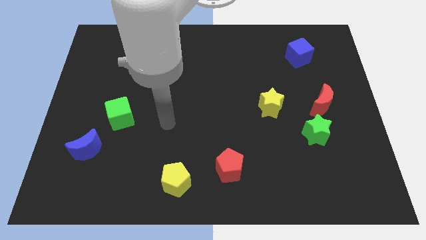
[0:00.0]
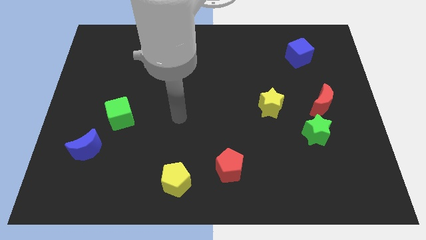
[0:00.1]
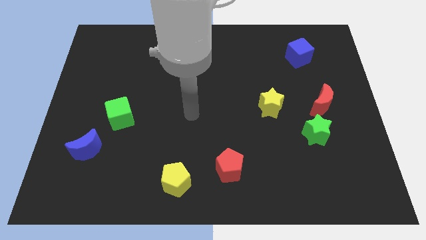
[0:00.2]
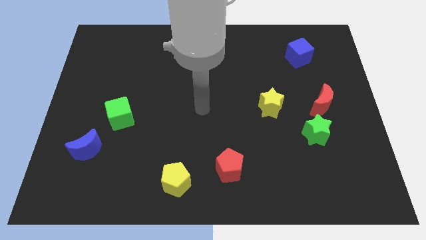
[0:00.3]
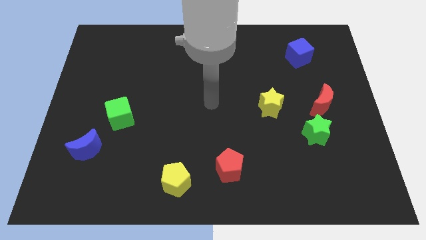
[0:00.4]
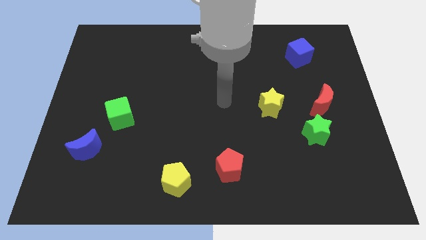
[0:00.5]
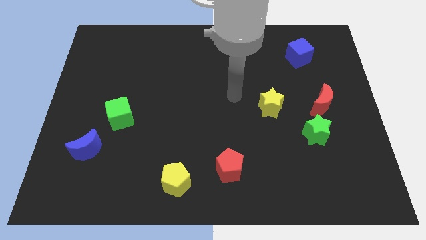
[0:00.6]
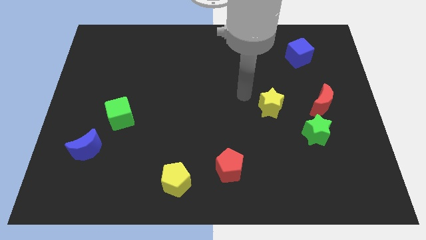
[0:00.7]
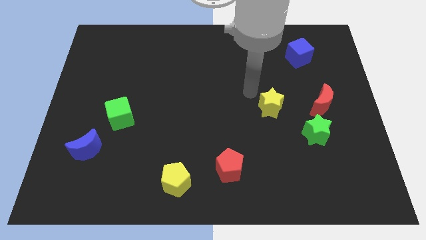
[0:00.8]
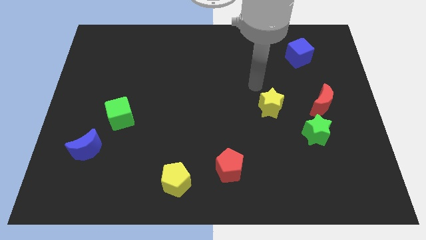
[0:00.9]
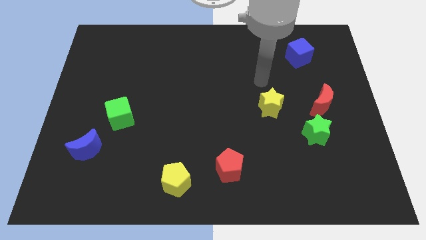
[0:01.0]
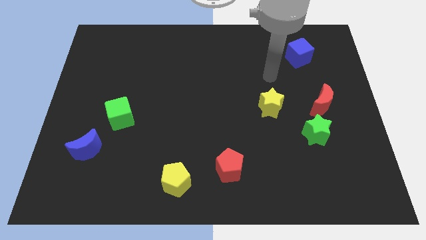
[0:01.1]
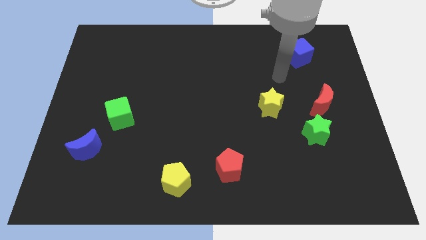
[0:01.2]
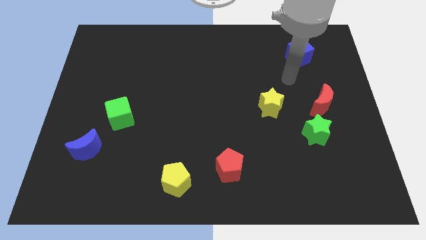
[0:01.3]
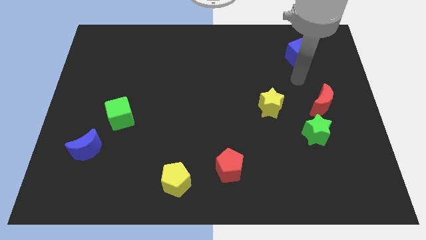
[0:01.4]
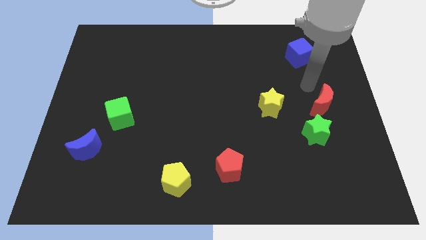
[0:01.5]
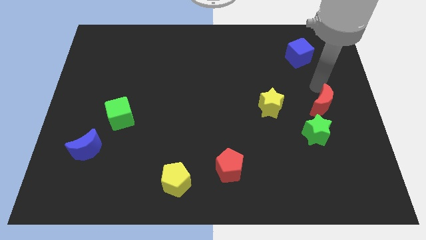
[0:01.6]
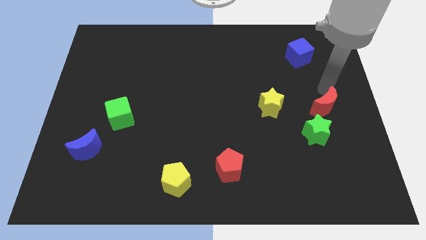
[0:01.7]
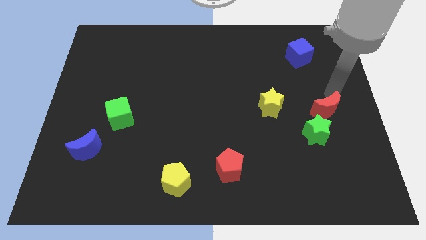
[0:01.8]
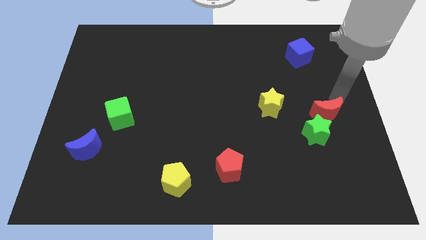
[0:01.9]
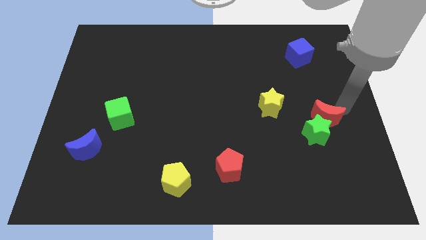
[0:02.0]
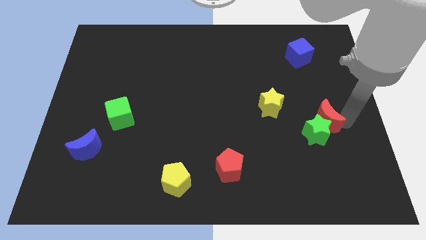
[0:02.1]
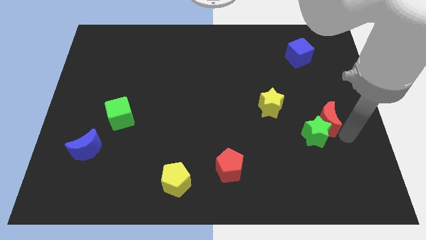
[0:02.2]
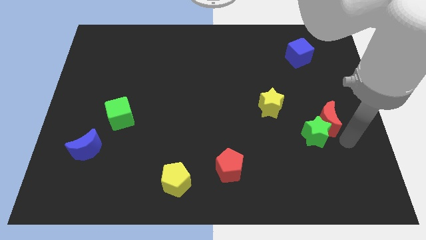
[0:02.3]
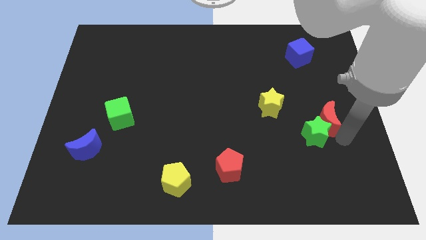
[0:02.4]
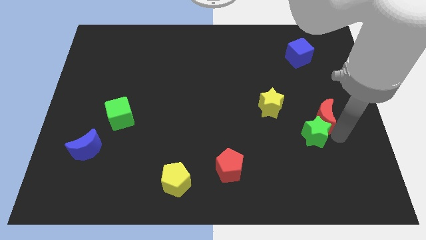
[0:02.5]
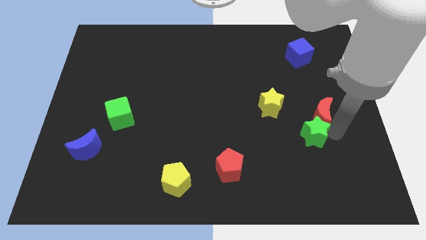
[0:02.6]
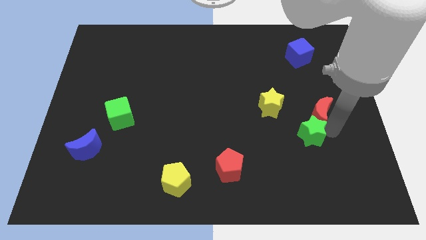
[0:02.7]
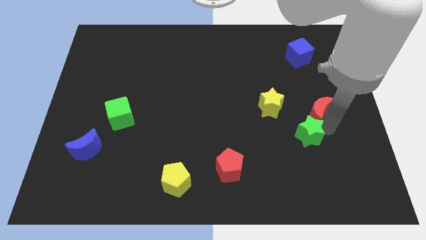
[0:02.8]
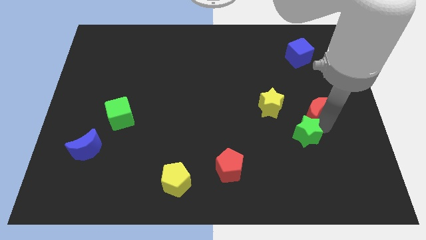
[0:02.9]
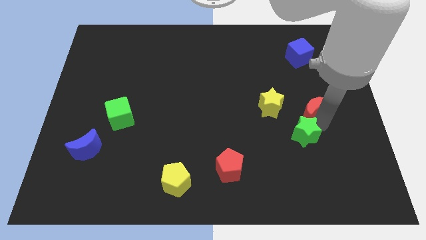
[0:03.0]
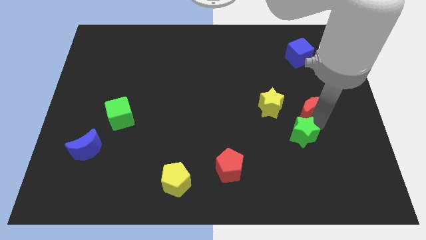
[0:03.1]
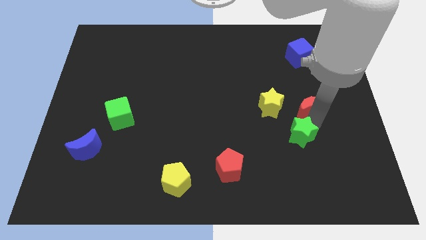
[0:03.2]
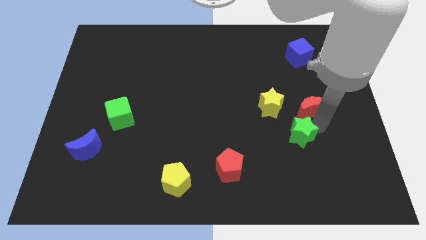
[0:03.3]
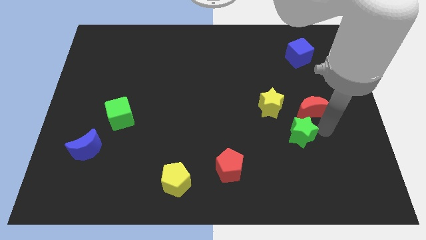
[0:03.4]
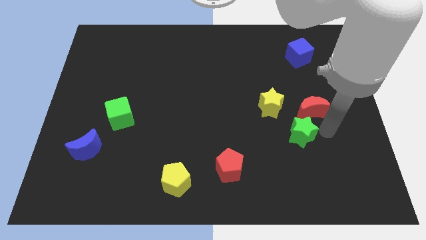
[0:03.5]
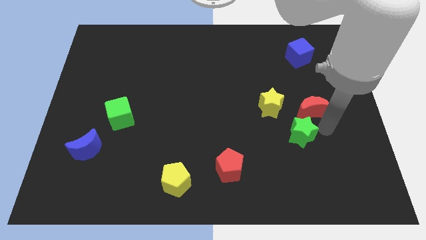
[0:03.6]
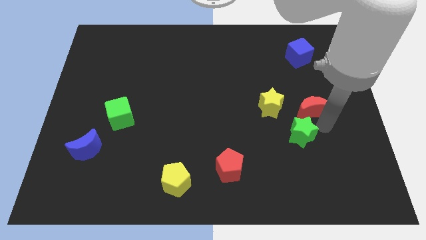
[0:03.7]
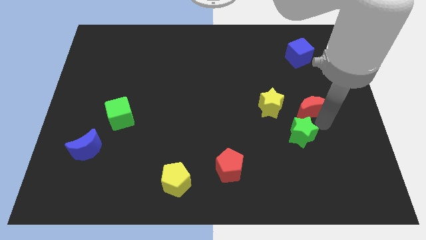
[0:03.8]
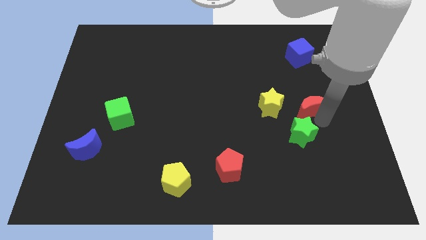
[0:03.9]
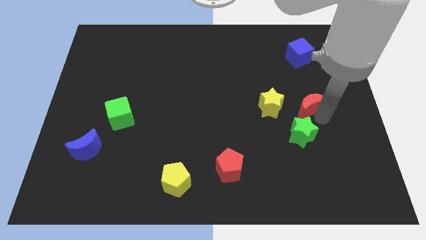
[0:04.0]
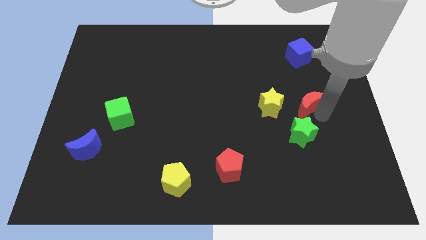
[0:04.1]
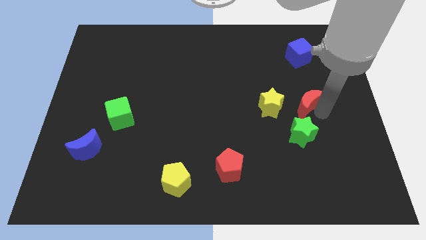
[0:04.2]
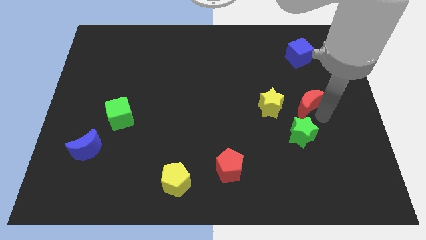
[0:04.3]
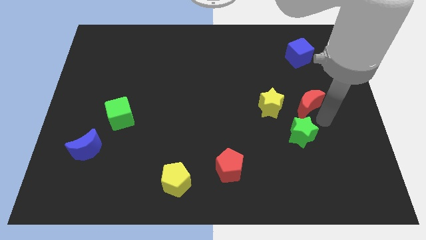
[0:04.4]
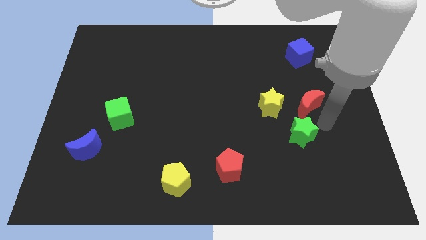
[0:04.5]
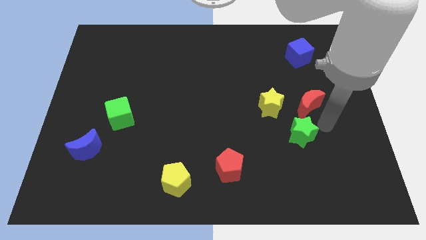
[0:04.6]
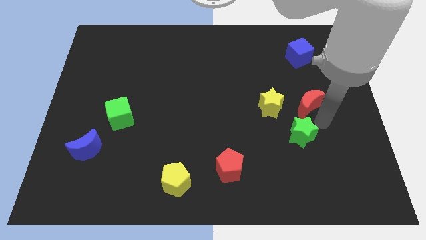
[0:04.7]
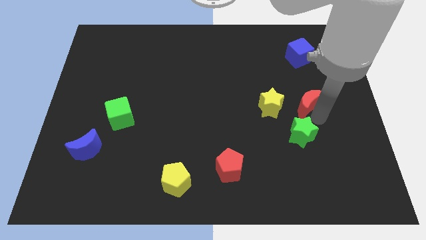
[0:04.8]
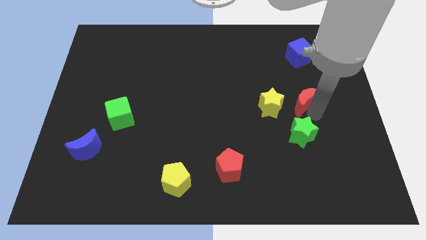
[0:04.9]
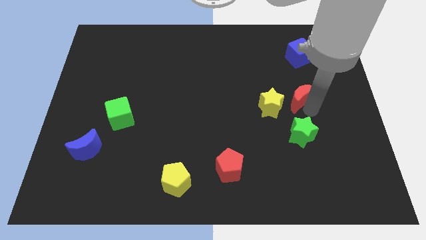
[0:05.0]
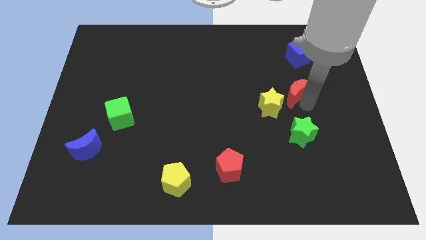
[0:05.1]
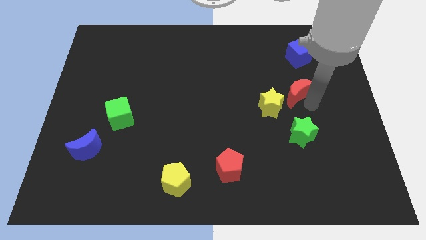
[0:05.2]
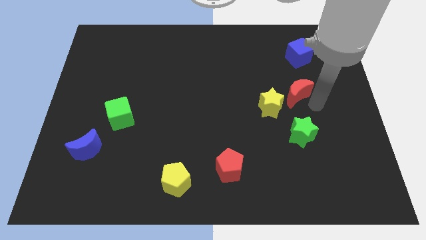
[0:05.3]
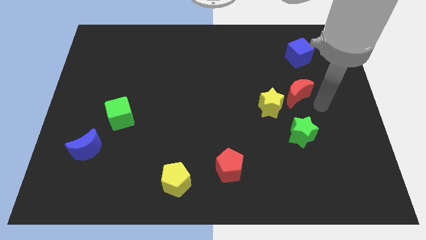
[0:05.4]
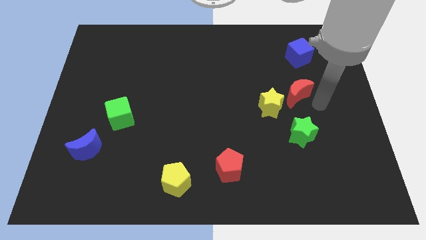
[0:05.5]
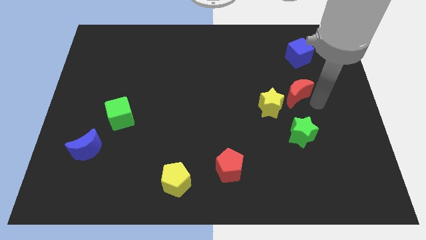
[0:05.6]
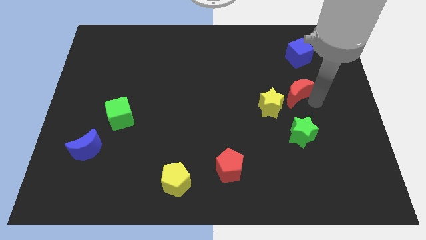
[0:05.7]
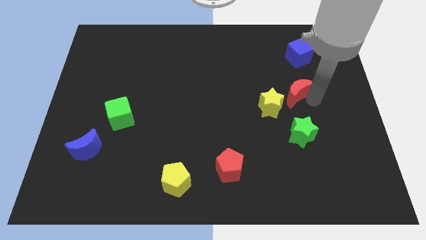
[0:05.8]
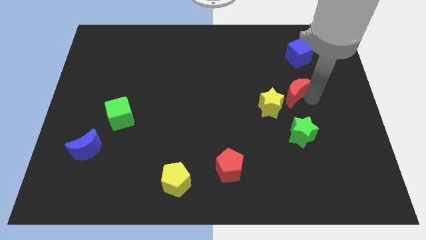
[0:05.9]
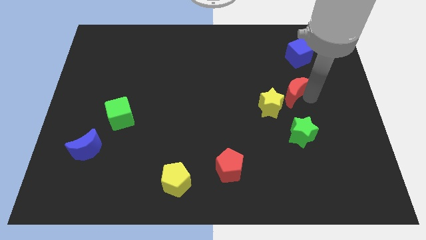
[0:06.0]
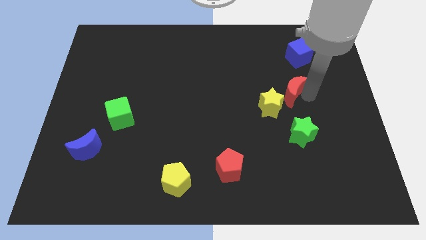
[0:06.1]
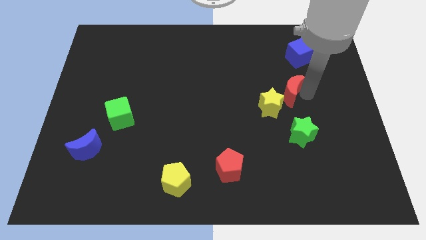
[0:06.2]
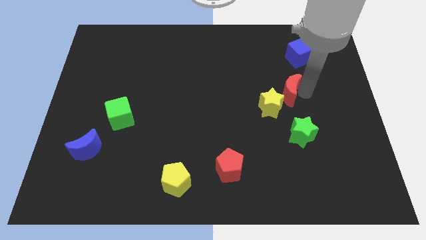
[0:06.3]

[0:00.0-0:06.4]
move the red moon a bit left

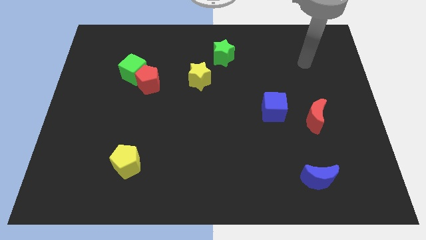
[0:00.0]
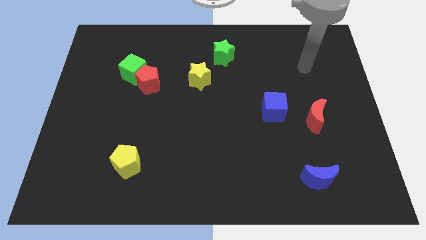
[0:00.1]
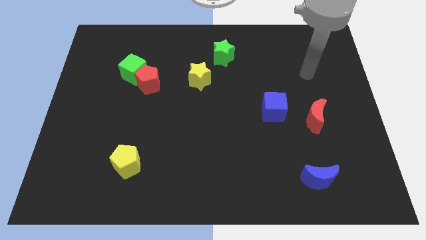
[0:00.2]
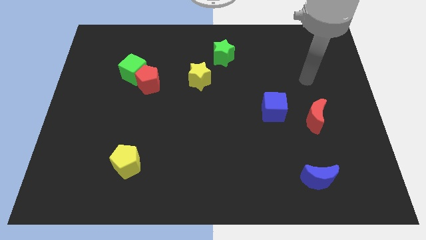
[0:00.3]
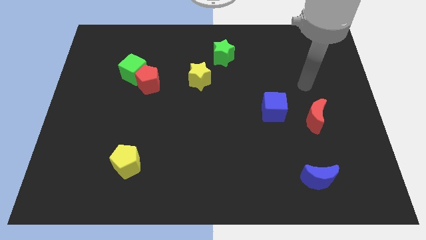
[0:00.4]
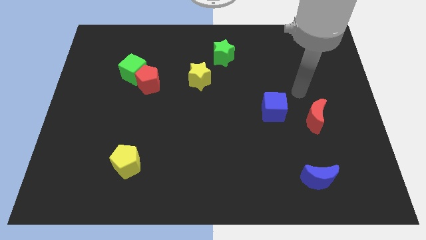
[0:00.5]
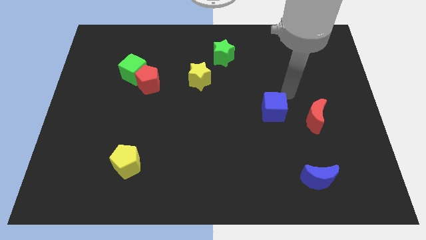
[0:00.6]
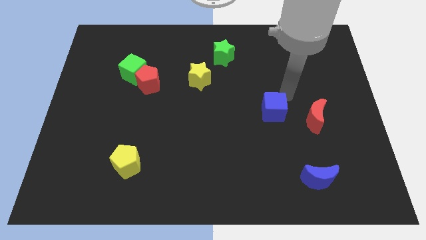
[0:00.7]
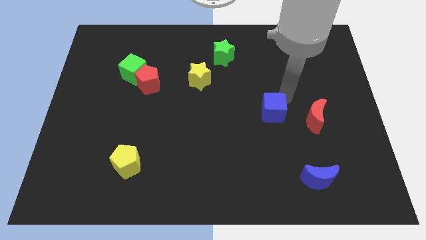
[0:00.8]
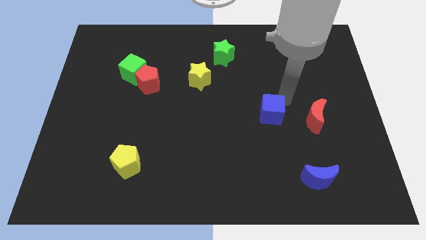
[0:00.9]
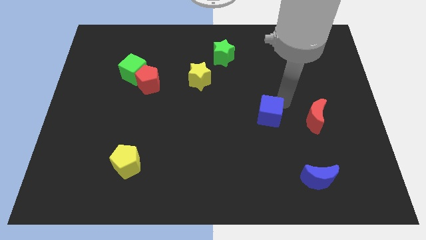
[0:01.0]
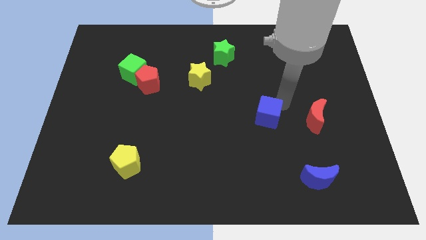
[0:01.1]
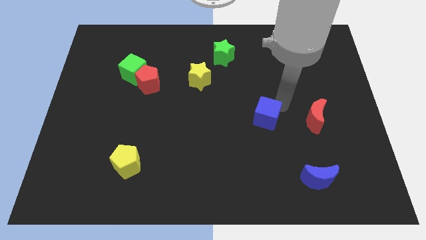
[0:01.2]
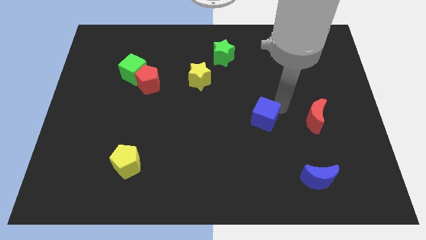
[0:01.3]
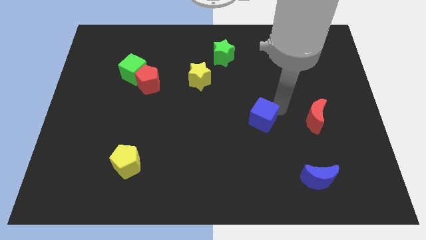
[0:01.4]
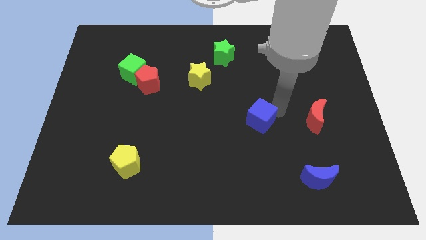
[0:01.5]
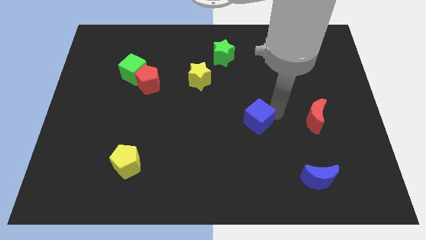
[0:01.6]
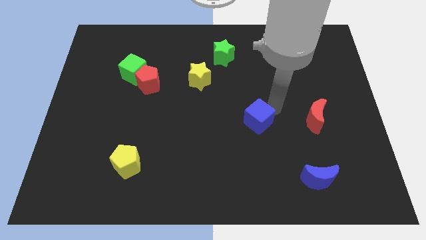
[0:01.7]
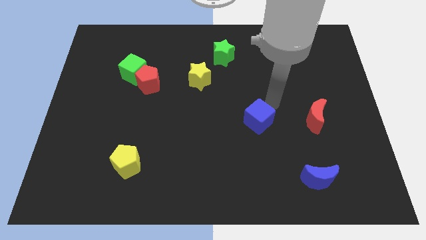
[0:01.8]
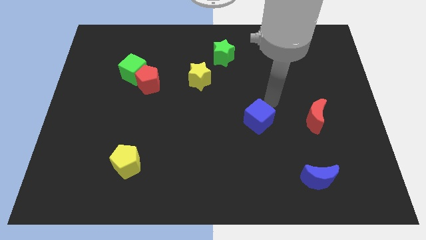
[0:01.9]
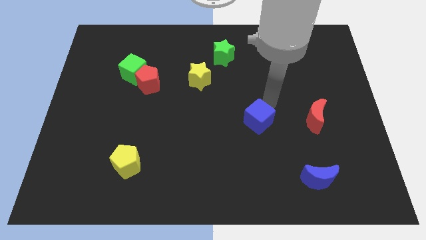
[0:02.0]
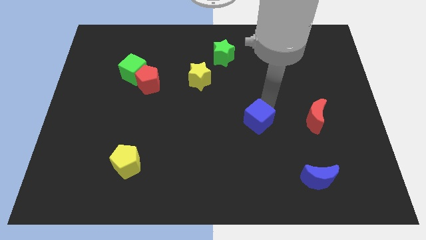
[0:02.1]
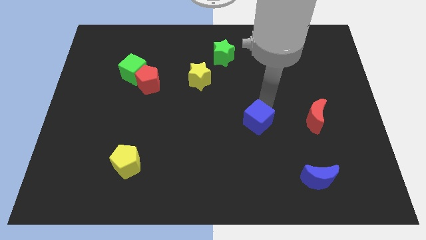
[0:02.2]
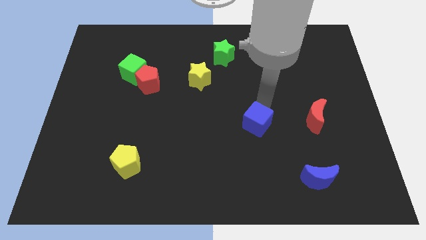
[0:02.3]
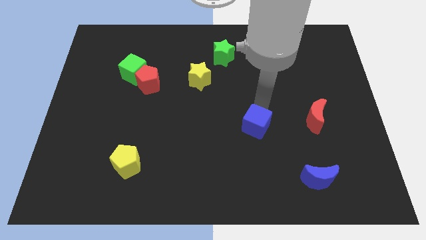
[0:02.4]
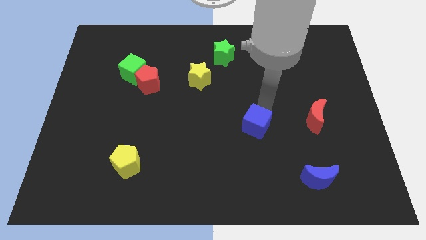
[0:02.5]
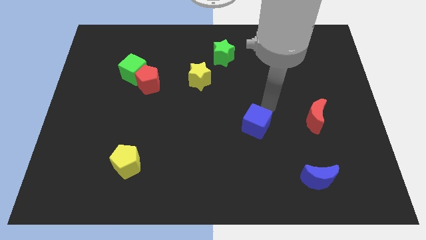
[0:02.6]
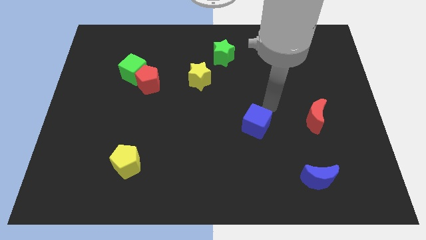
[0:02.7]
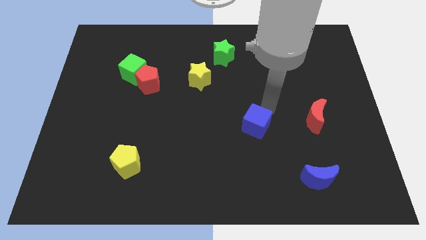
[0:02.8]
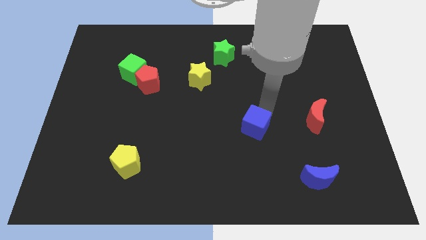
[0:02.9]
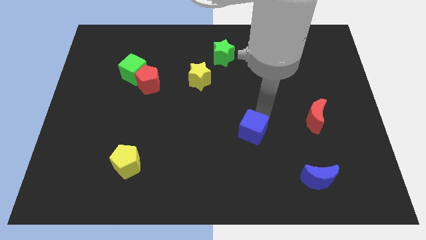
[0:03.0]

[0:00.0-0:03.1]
move the blue cube diagonally down and left a little bit
